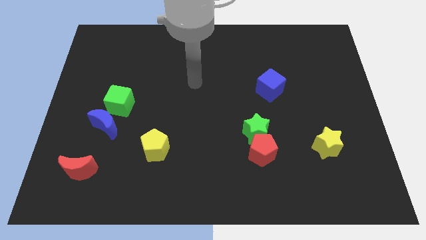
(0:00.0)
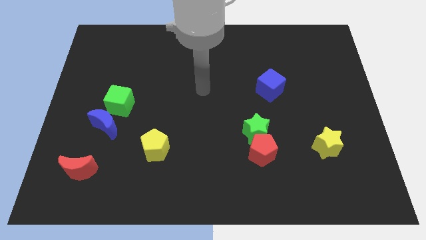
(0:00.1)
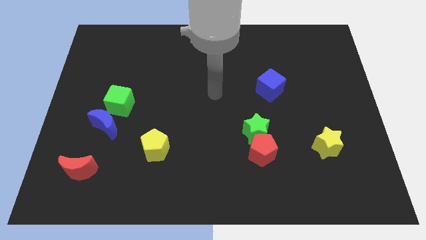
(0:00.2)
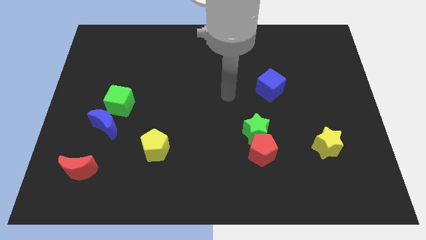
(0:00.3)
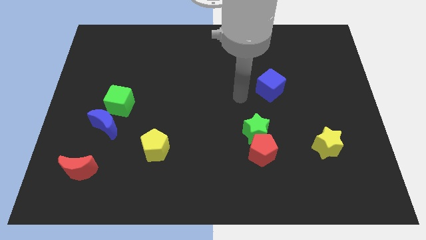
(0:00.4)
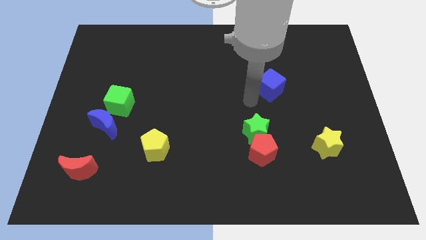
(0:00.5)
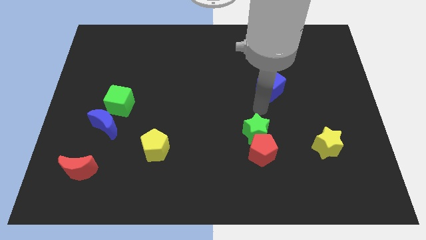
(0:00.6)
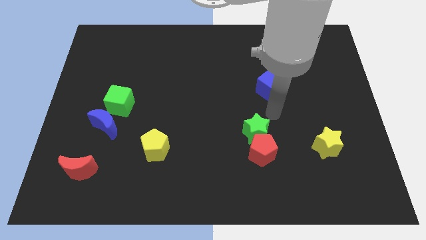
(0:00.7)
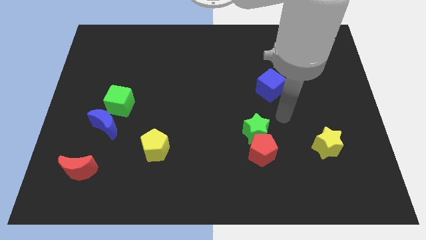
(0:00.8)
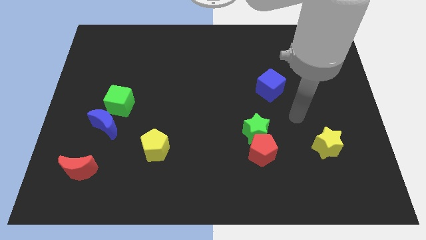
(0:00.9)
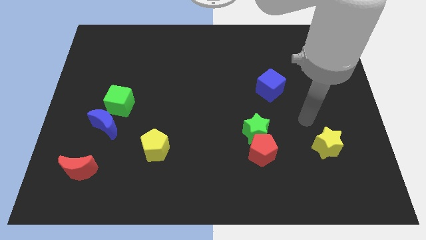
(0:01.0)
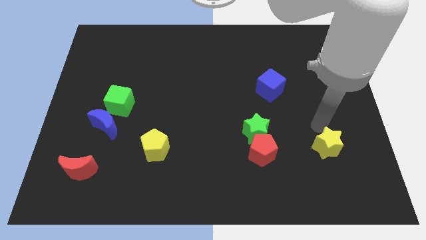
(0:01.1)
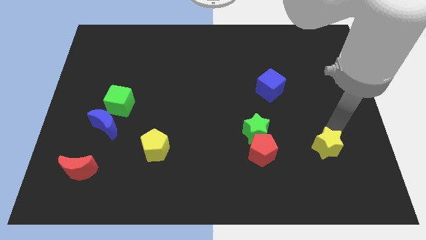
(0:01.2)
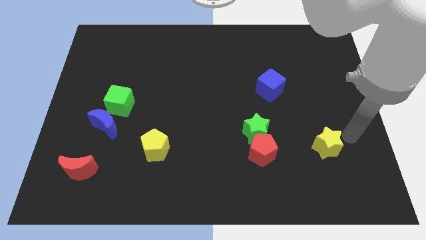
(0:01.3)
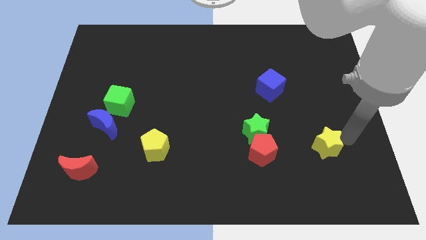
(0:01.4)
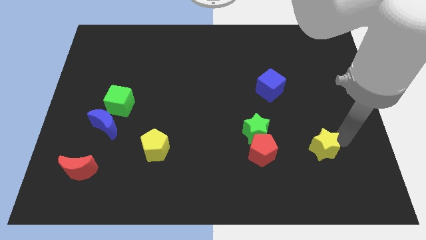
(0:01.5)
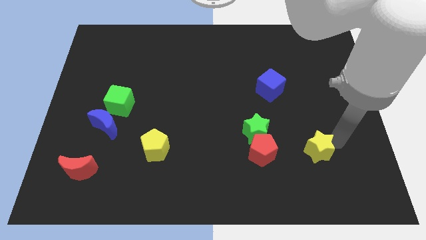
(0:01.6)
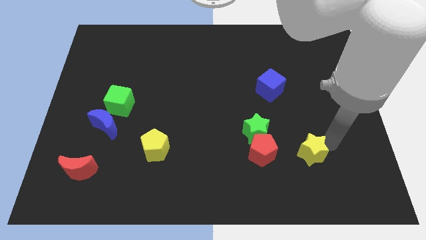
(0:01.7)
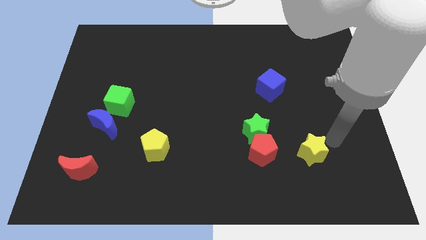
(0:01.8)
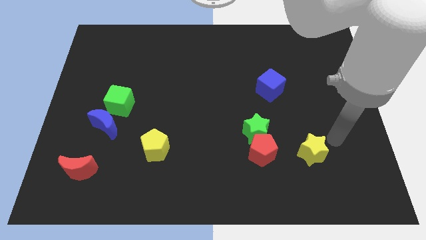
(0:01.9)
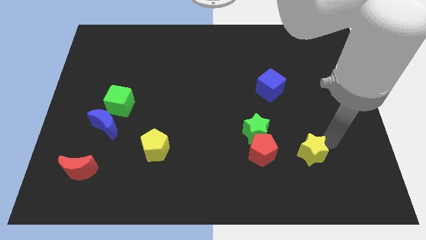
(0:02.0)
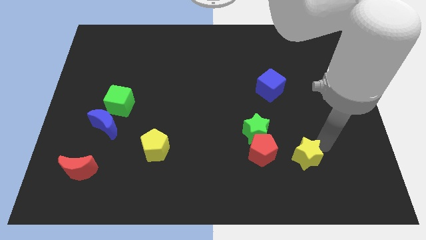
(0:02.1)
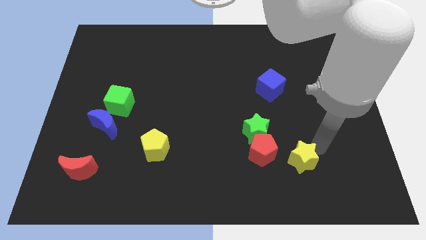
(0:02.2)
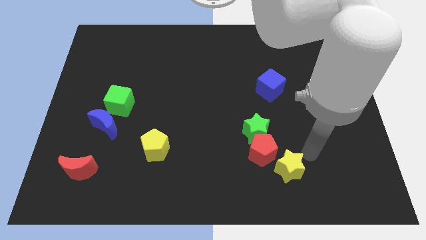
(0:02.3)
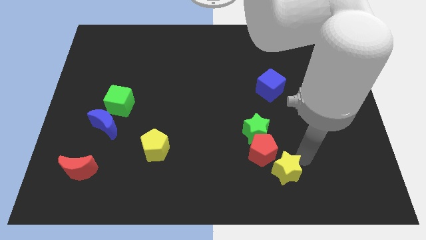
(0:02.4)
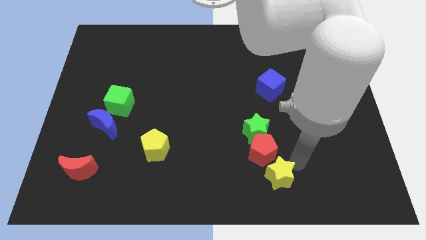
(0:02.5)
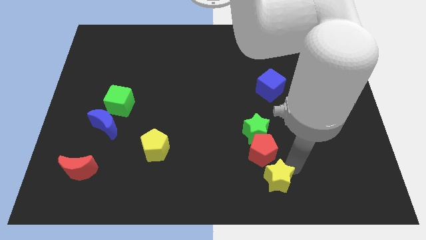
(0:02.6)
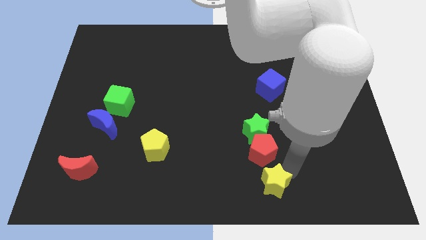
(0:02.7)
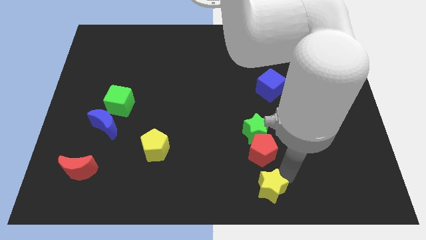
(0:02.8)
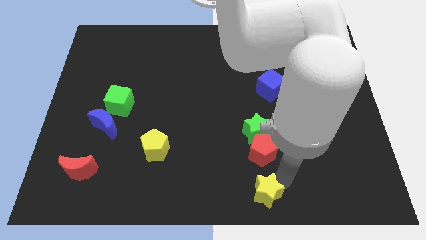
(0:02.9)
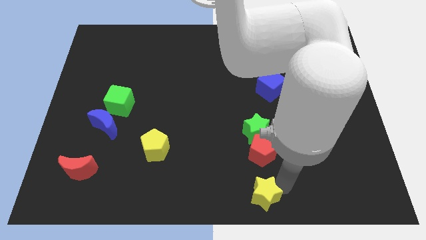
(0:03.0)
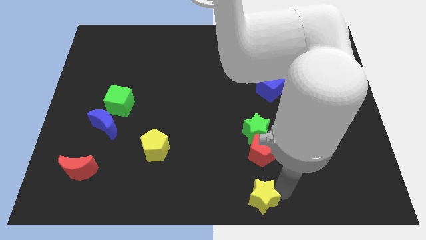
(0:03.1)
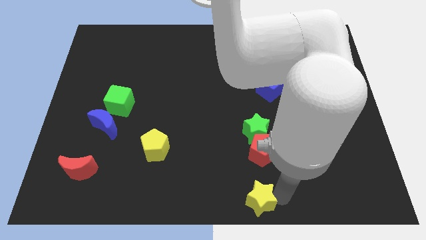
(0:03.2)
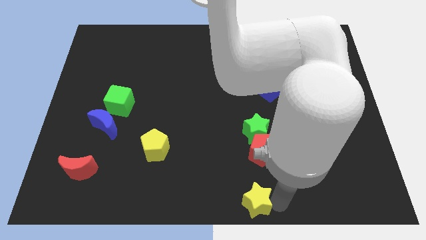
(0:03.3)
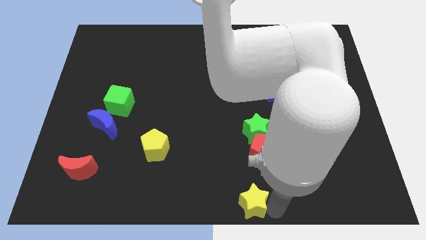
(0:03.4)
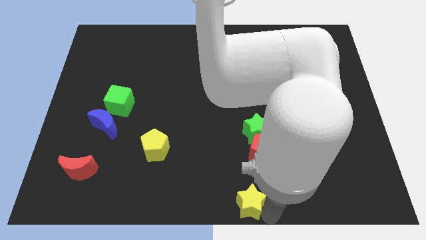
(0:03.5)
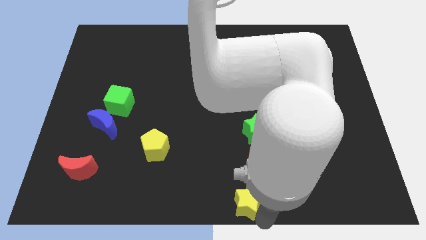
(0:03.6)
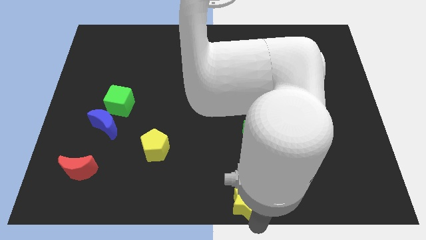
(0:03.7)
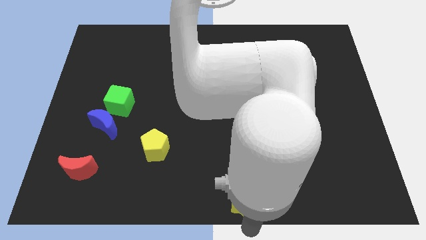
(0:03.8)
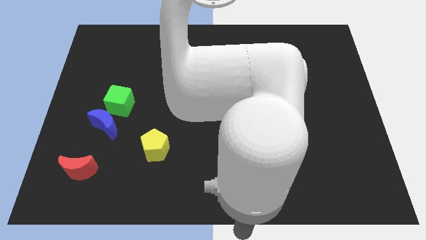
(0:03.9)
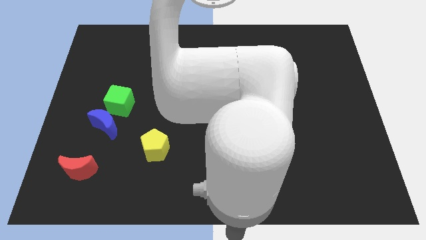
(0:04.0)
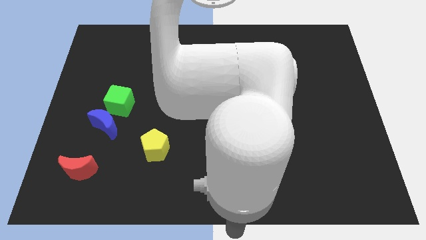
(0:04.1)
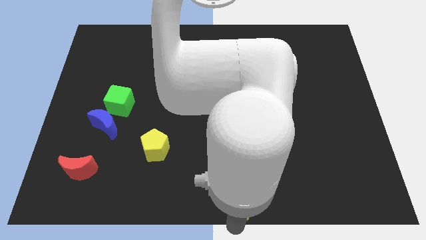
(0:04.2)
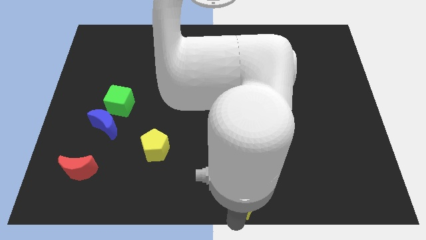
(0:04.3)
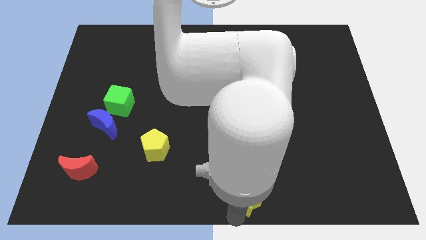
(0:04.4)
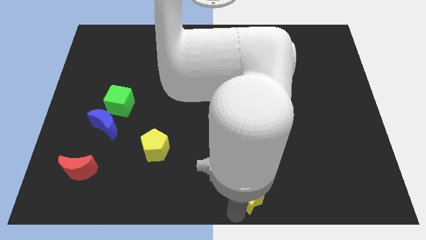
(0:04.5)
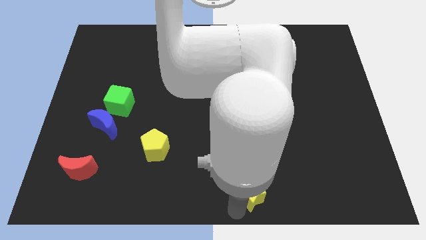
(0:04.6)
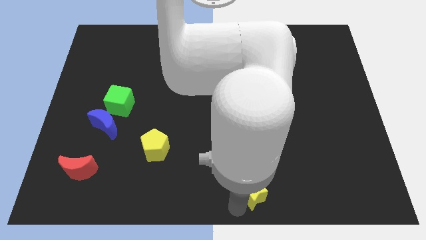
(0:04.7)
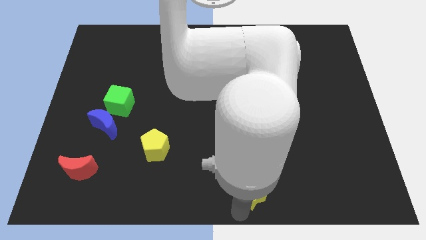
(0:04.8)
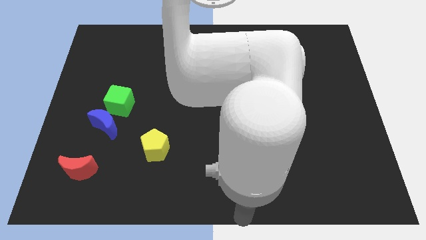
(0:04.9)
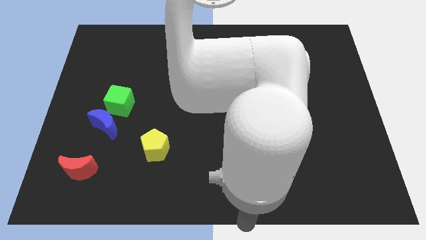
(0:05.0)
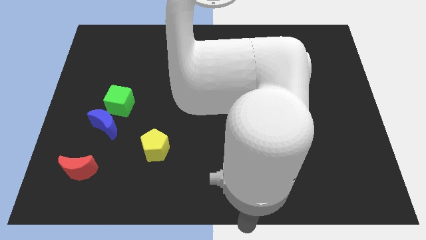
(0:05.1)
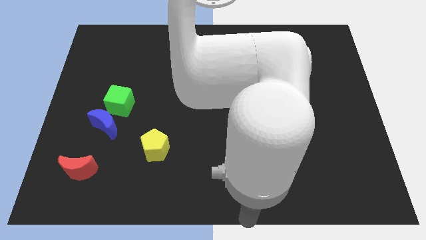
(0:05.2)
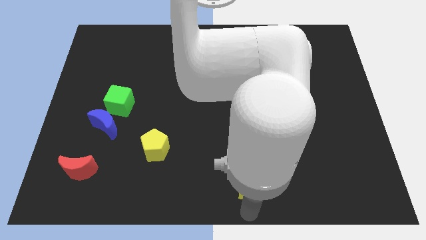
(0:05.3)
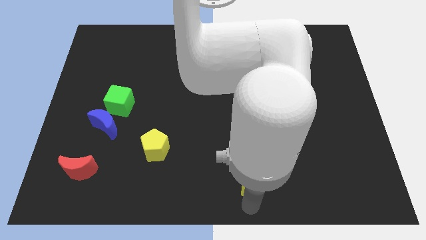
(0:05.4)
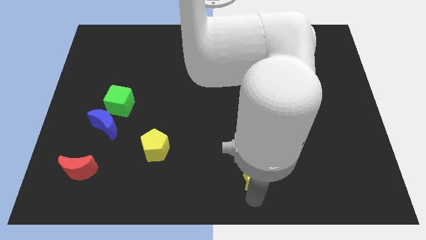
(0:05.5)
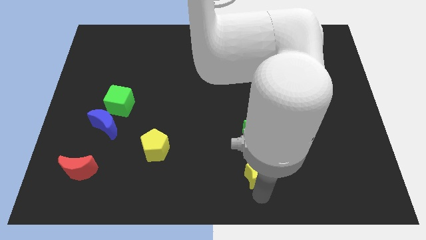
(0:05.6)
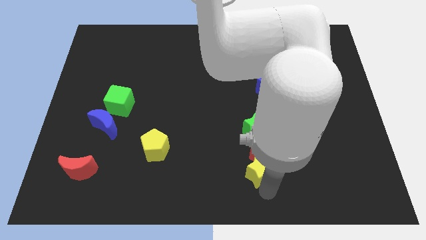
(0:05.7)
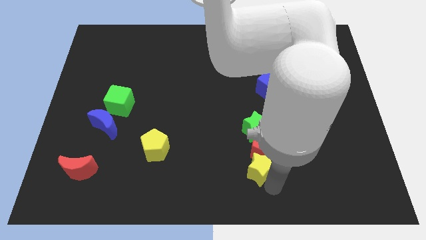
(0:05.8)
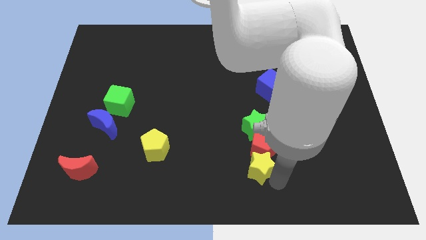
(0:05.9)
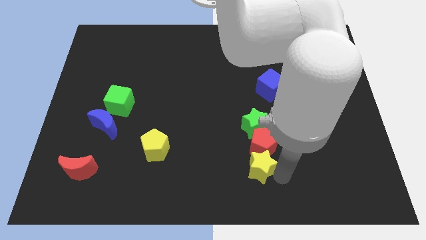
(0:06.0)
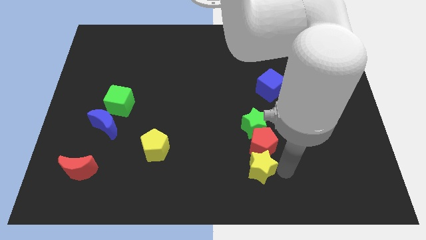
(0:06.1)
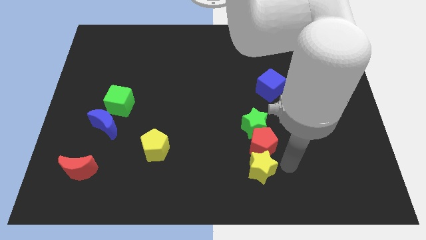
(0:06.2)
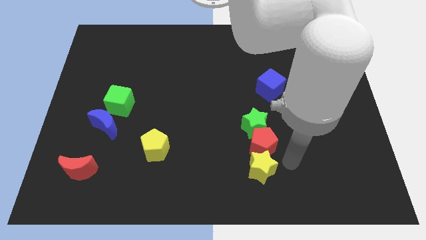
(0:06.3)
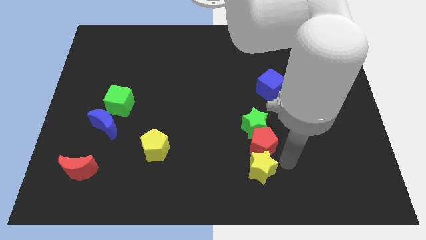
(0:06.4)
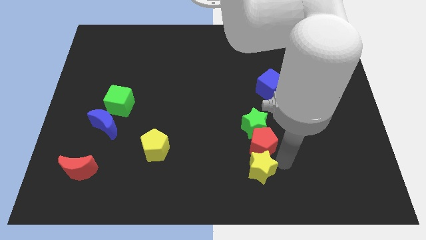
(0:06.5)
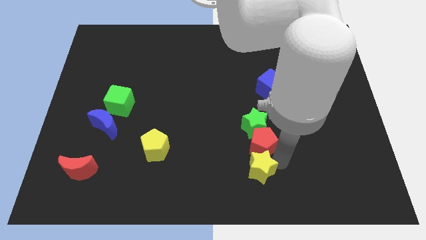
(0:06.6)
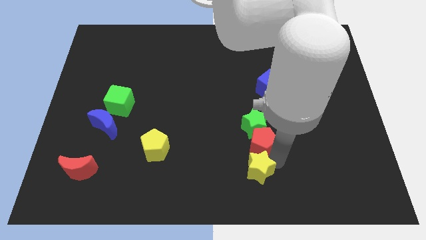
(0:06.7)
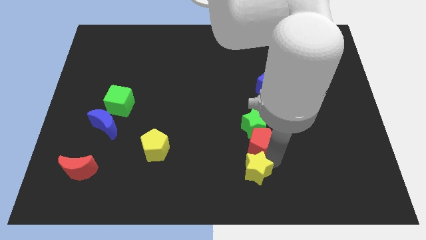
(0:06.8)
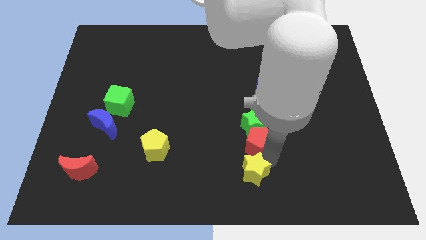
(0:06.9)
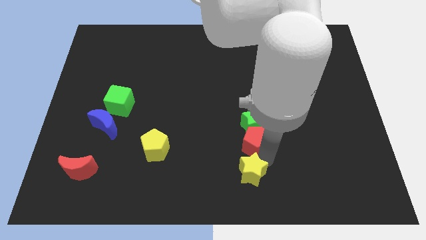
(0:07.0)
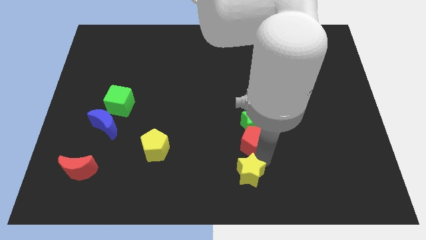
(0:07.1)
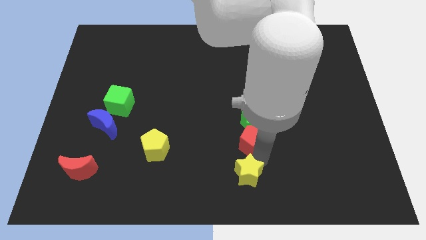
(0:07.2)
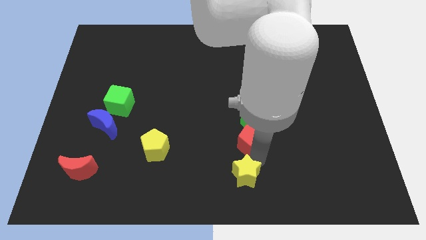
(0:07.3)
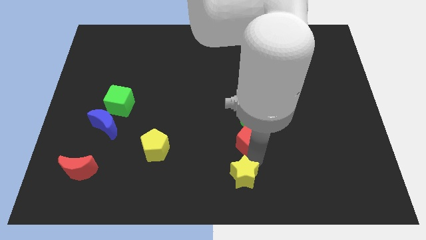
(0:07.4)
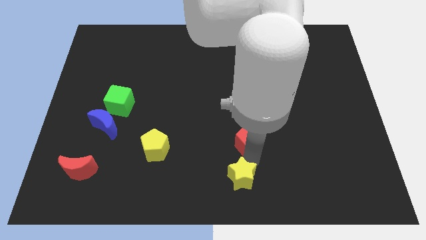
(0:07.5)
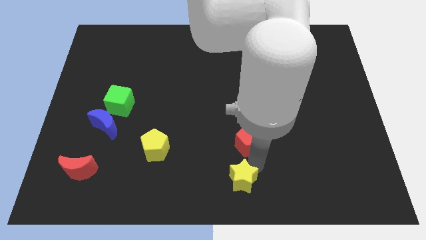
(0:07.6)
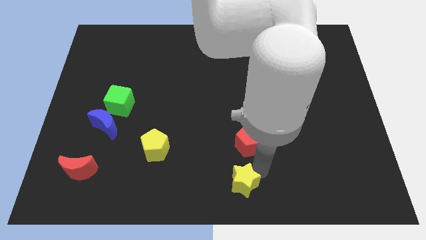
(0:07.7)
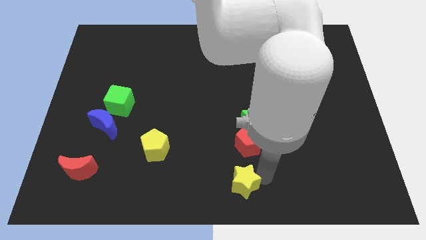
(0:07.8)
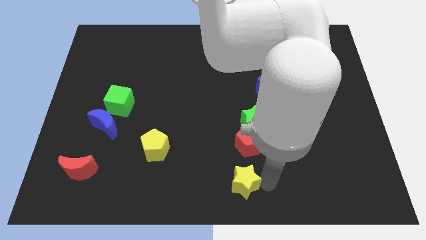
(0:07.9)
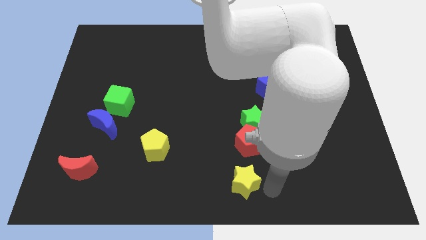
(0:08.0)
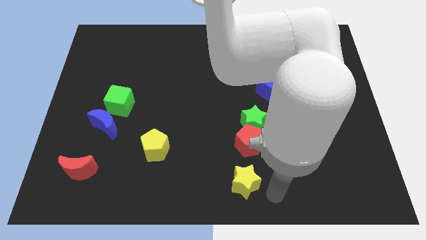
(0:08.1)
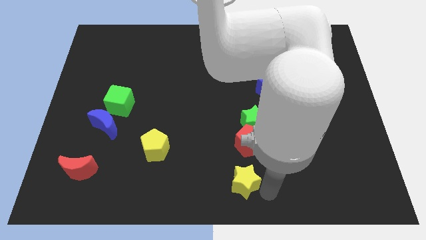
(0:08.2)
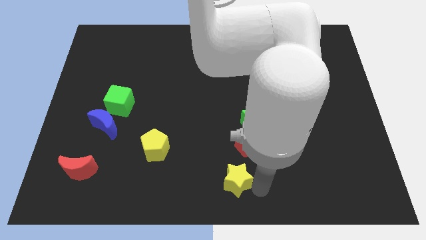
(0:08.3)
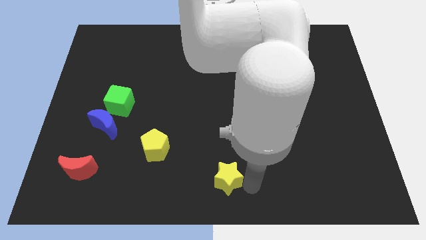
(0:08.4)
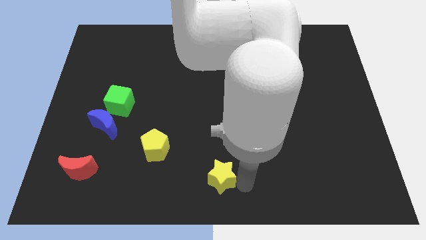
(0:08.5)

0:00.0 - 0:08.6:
push the yellow star to the left
